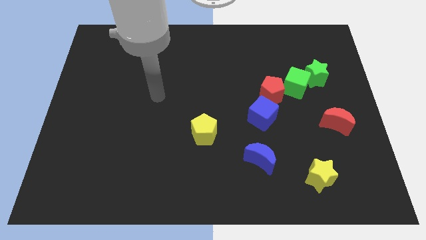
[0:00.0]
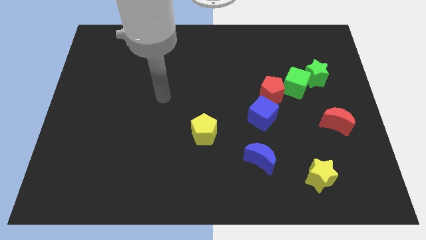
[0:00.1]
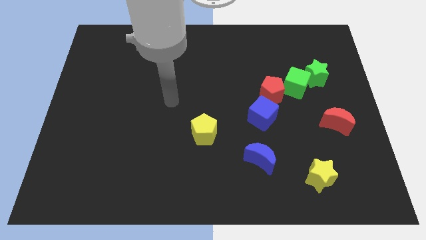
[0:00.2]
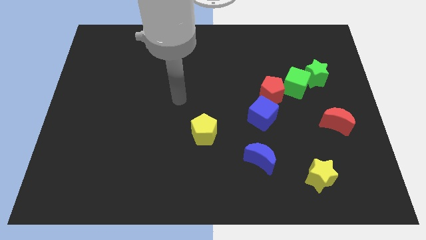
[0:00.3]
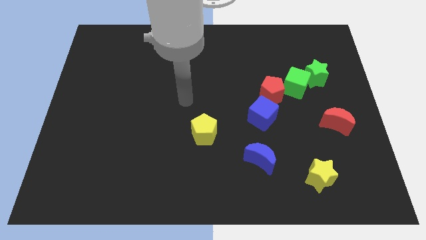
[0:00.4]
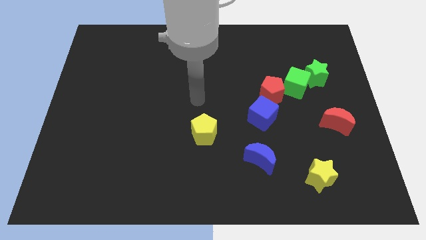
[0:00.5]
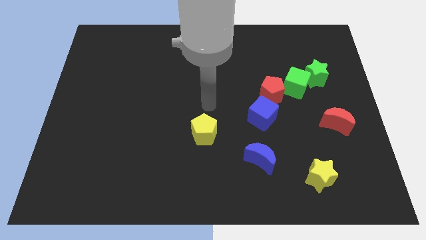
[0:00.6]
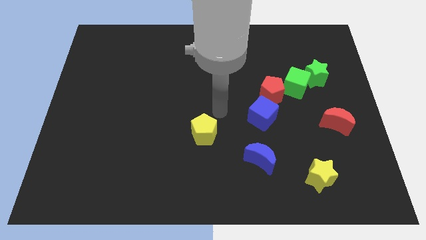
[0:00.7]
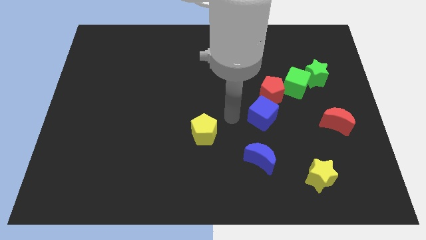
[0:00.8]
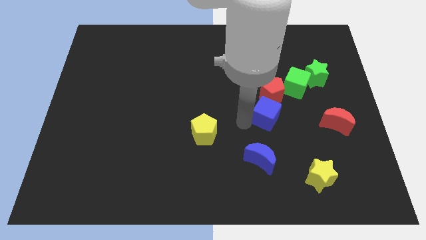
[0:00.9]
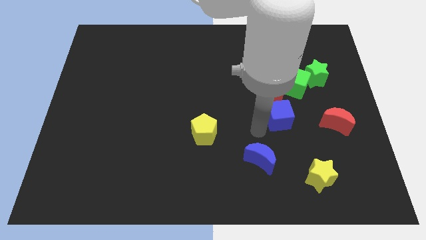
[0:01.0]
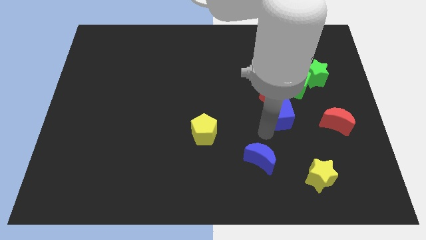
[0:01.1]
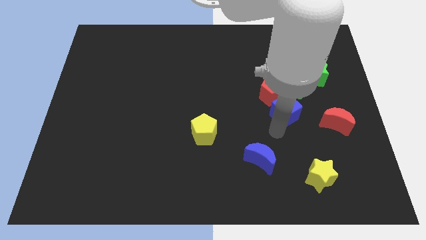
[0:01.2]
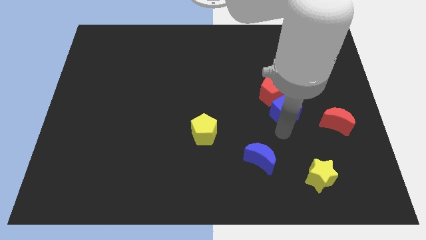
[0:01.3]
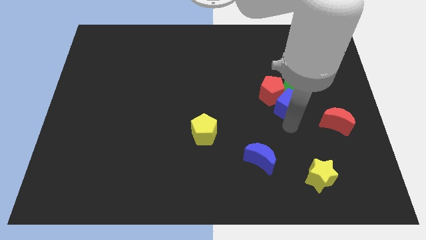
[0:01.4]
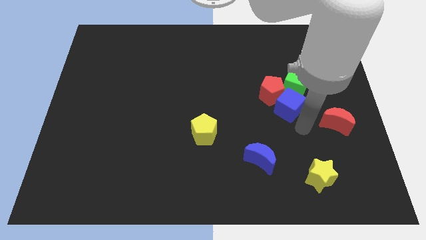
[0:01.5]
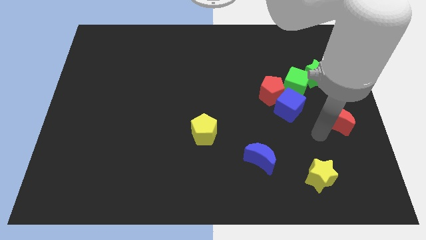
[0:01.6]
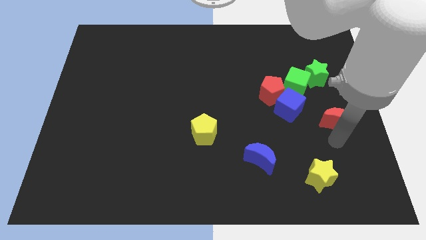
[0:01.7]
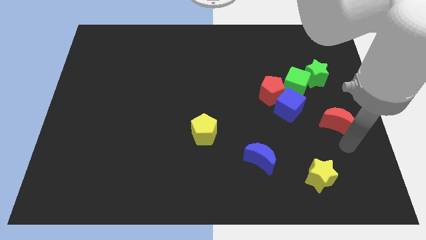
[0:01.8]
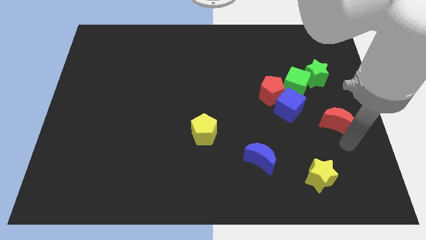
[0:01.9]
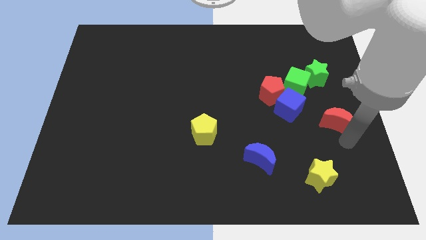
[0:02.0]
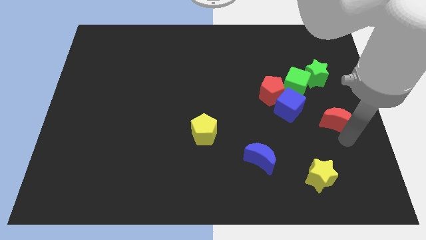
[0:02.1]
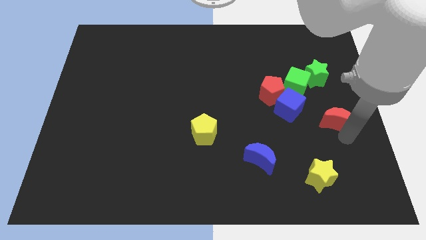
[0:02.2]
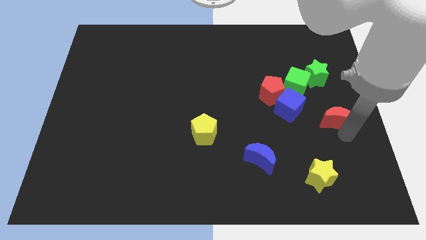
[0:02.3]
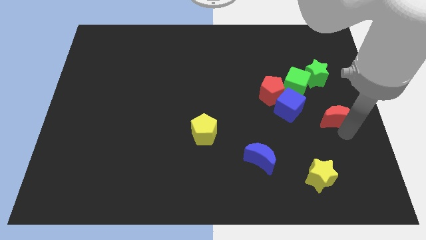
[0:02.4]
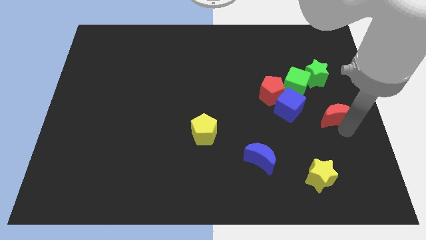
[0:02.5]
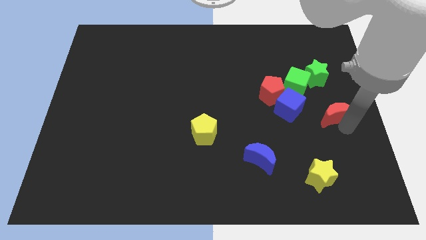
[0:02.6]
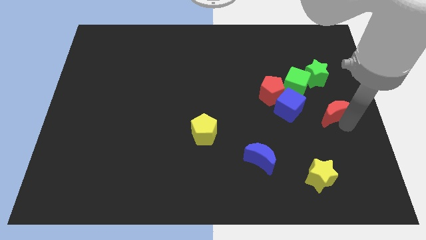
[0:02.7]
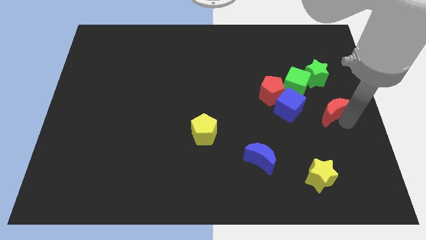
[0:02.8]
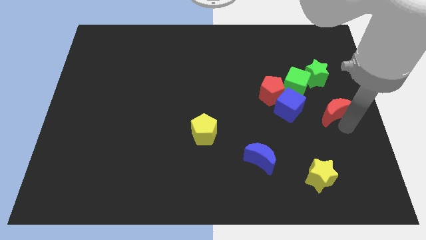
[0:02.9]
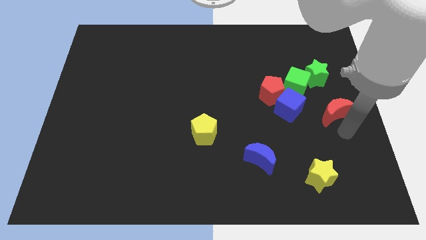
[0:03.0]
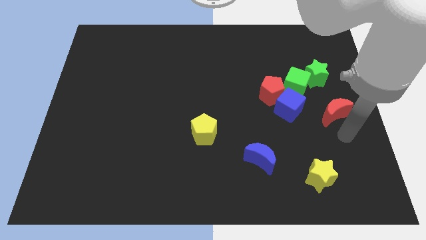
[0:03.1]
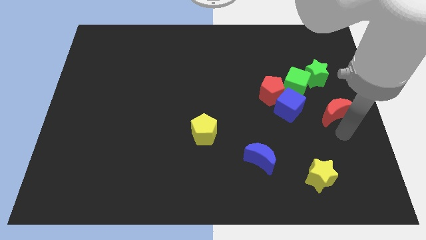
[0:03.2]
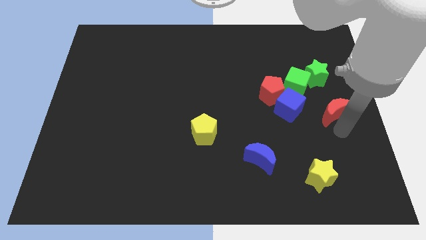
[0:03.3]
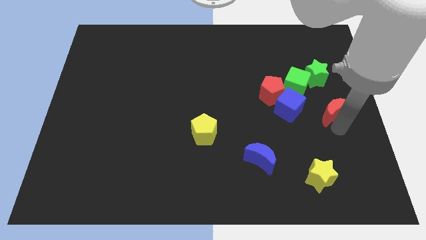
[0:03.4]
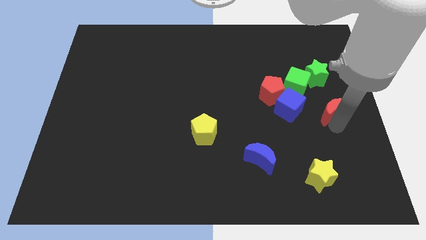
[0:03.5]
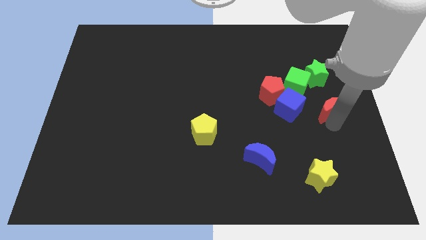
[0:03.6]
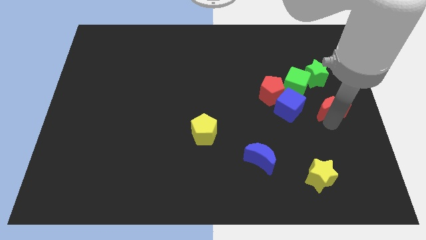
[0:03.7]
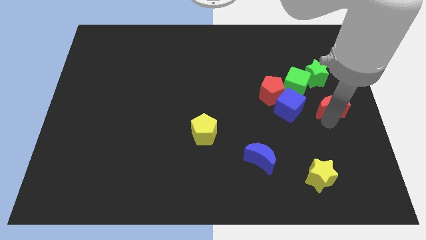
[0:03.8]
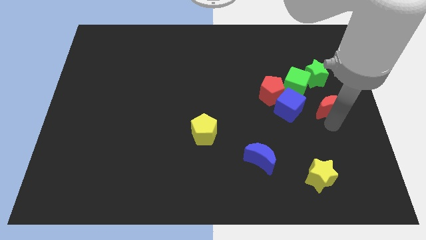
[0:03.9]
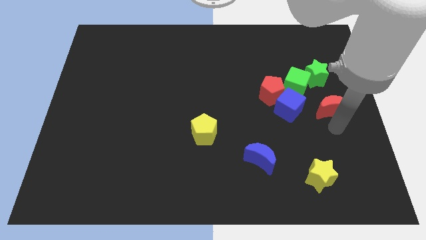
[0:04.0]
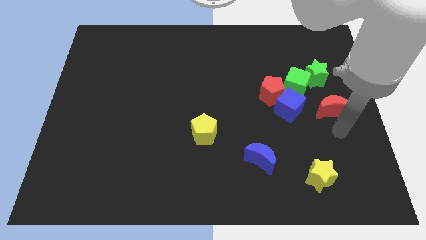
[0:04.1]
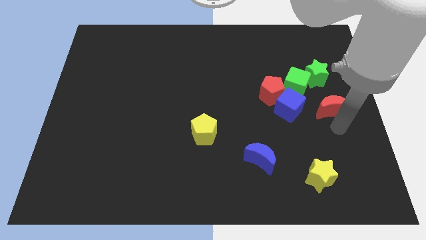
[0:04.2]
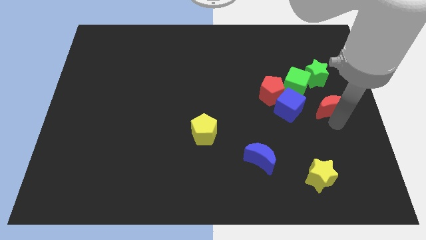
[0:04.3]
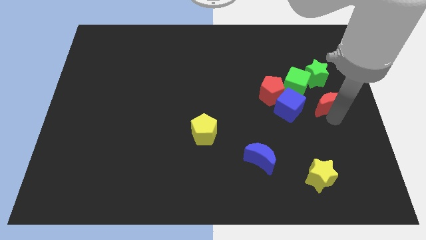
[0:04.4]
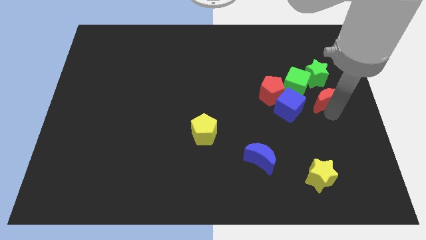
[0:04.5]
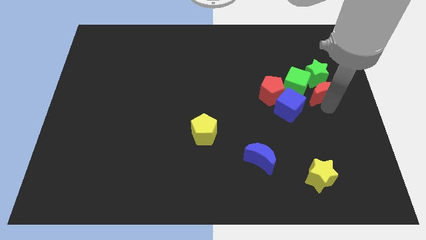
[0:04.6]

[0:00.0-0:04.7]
slide the red moon towards the green star

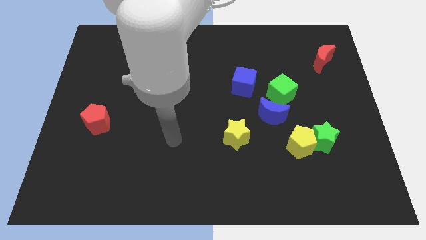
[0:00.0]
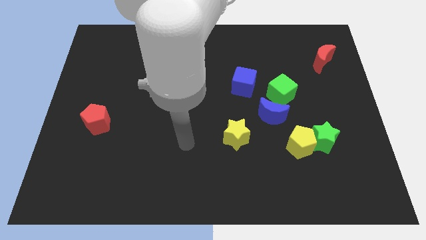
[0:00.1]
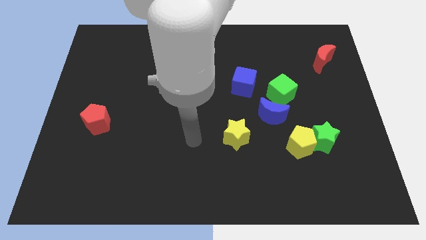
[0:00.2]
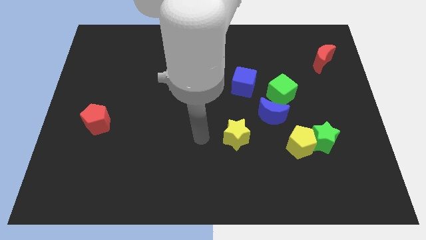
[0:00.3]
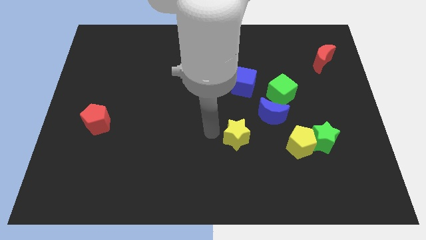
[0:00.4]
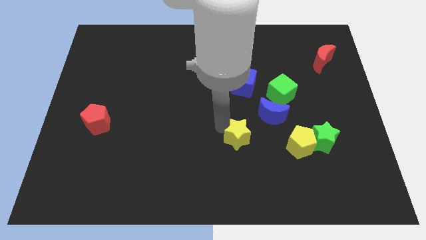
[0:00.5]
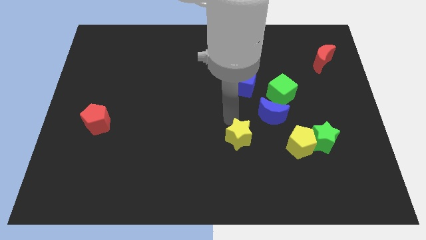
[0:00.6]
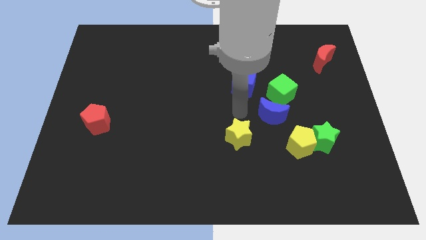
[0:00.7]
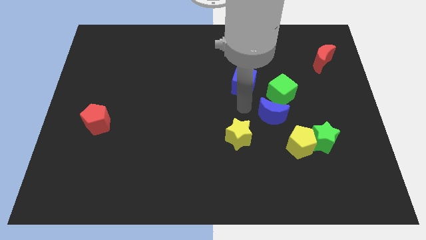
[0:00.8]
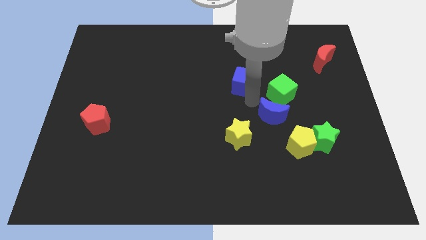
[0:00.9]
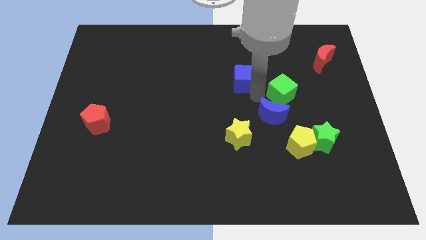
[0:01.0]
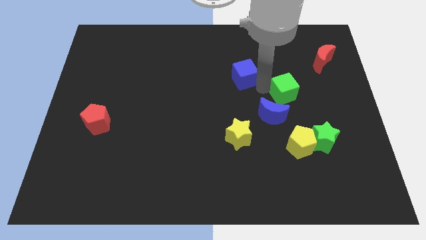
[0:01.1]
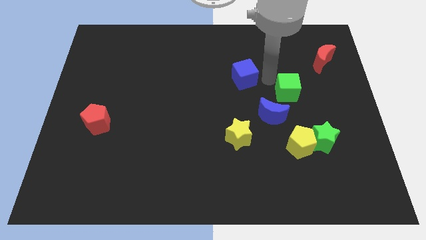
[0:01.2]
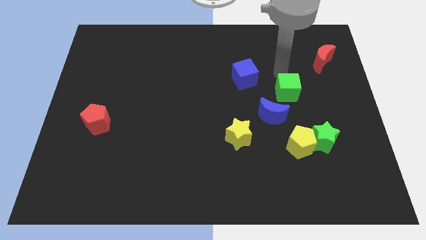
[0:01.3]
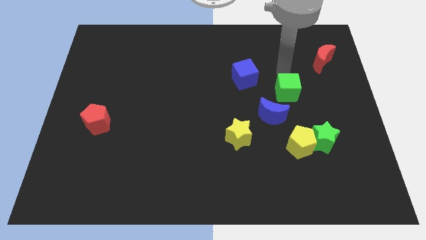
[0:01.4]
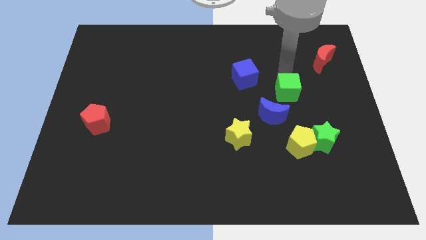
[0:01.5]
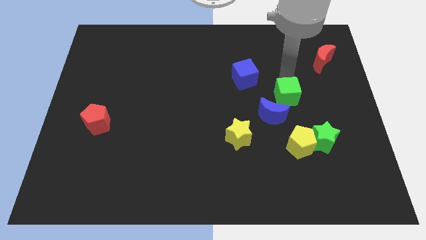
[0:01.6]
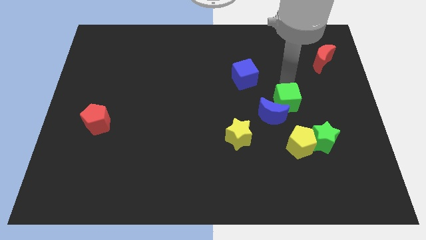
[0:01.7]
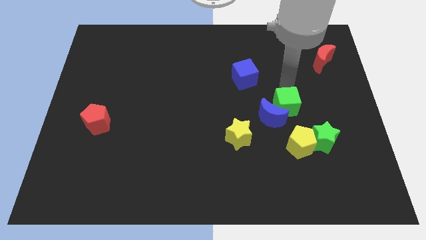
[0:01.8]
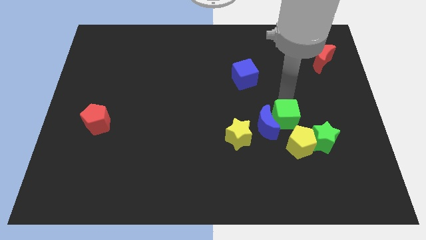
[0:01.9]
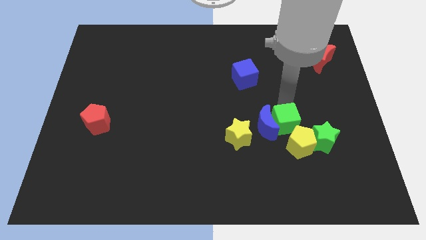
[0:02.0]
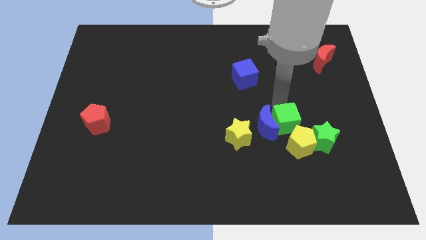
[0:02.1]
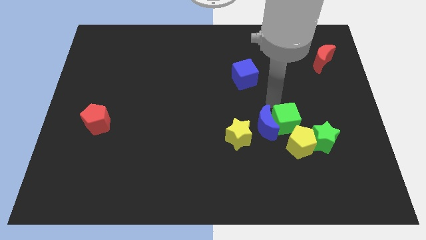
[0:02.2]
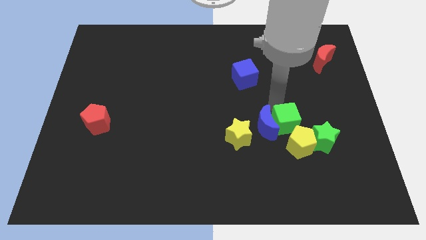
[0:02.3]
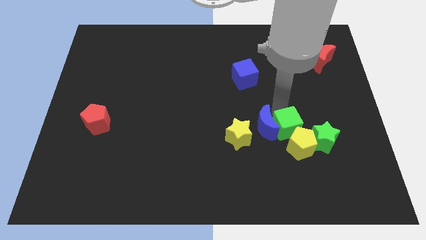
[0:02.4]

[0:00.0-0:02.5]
push the green cube to the yellow pentagon

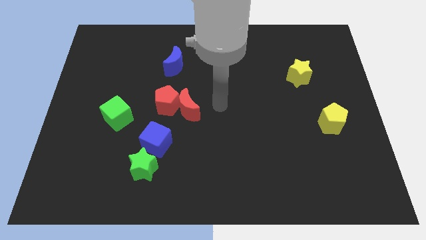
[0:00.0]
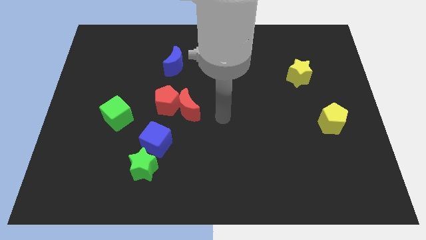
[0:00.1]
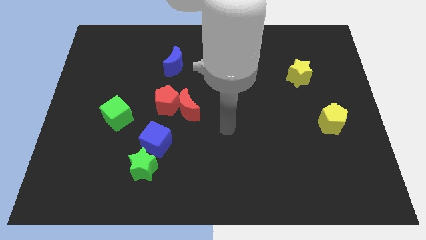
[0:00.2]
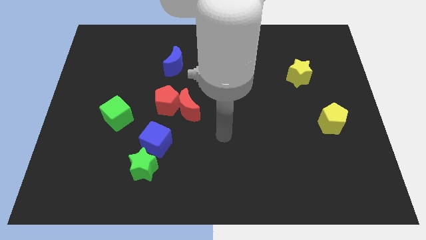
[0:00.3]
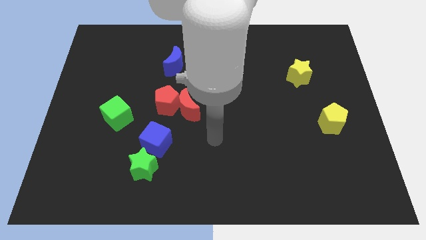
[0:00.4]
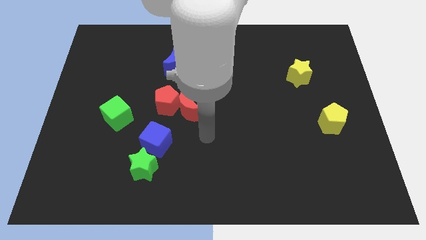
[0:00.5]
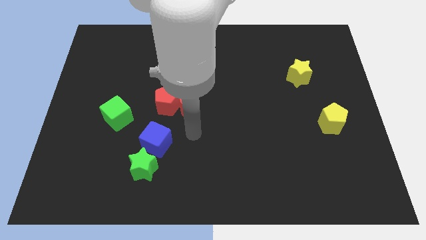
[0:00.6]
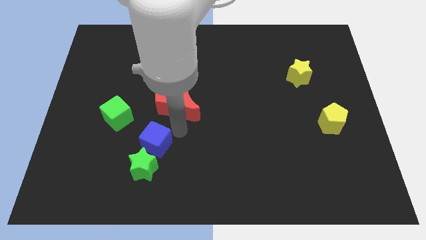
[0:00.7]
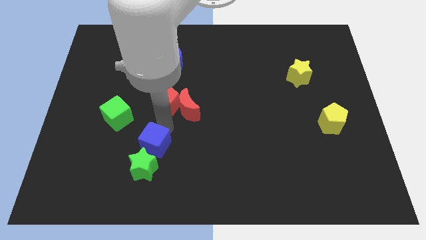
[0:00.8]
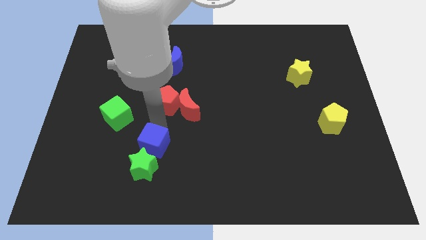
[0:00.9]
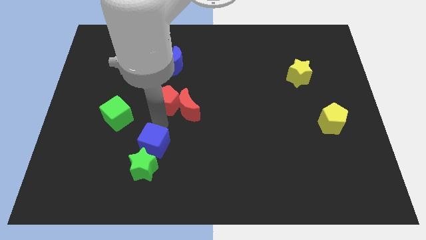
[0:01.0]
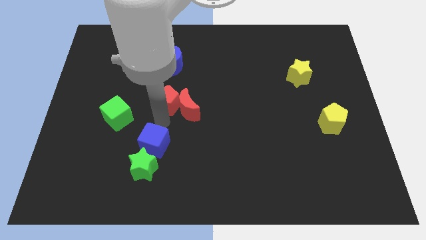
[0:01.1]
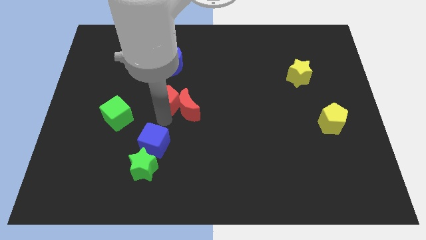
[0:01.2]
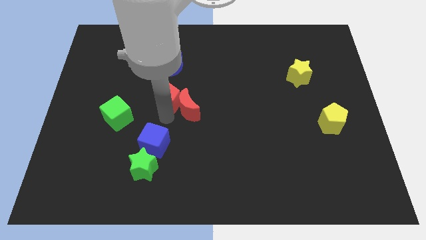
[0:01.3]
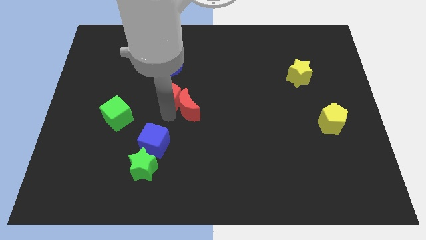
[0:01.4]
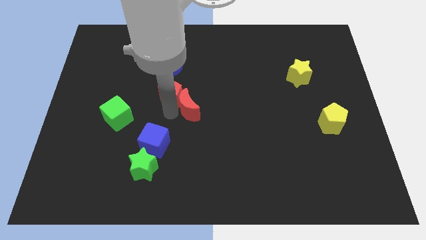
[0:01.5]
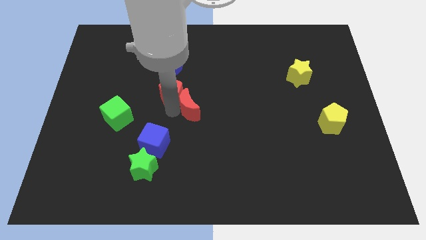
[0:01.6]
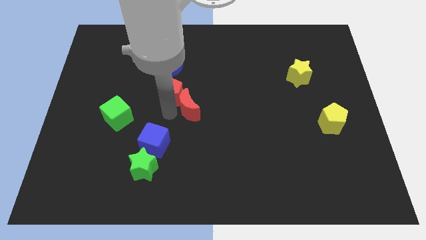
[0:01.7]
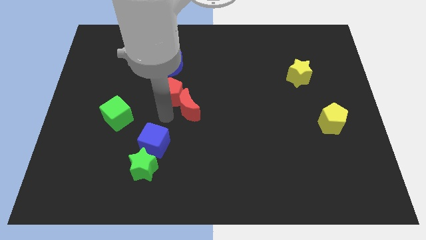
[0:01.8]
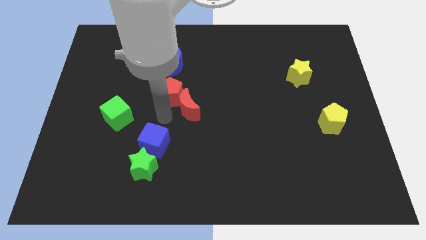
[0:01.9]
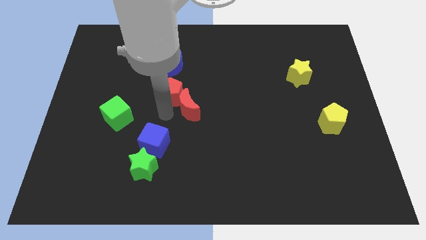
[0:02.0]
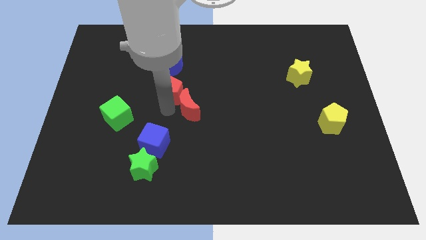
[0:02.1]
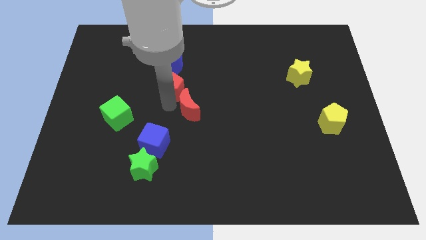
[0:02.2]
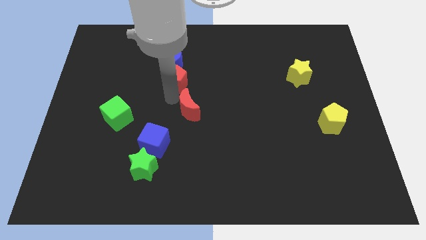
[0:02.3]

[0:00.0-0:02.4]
move the red pentagon to the blue moon
